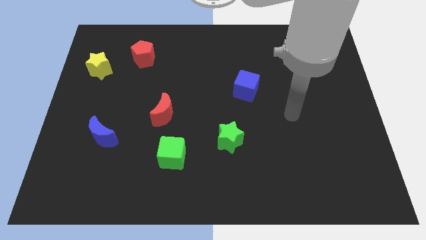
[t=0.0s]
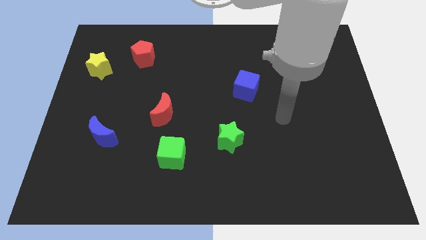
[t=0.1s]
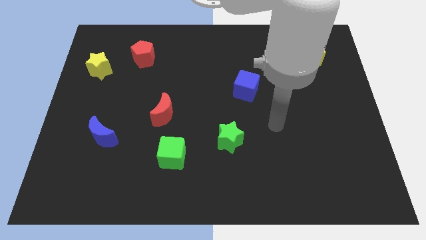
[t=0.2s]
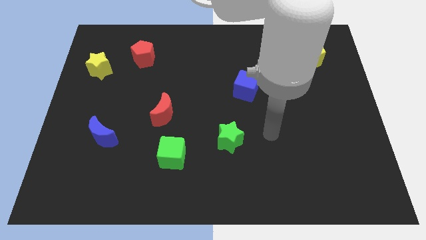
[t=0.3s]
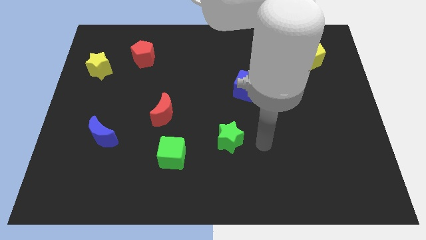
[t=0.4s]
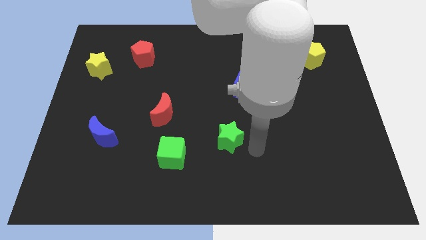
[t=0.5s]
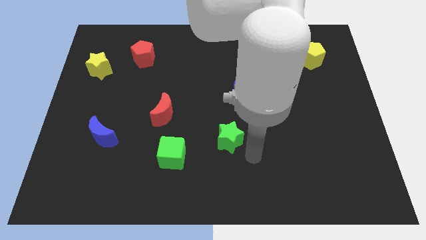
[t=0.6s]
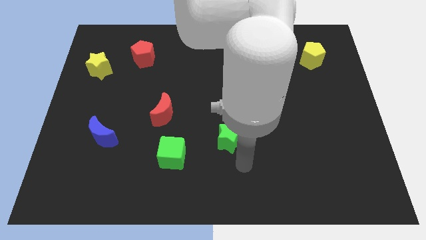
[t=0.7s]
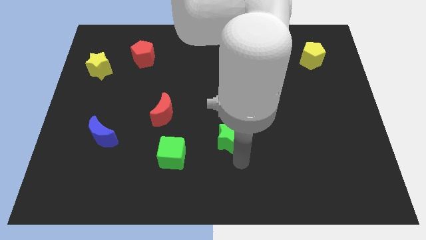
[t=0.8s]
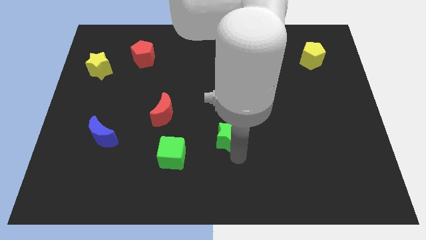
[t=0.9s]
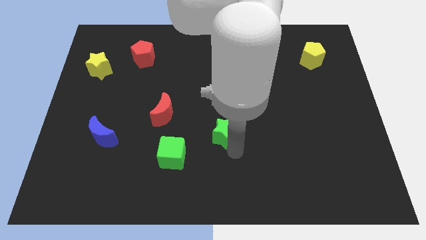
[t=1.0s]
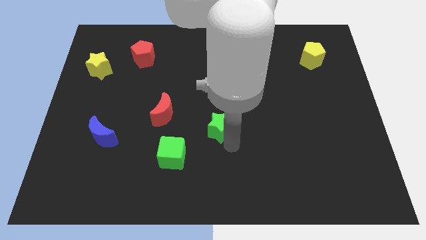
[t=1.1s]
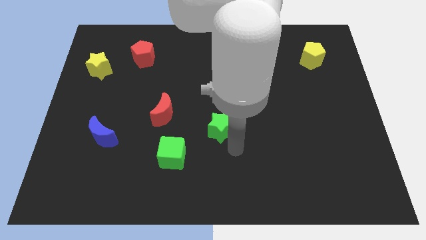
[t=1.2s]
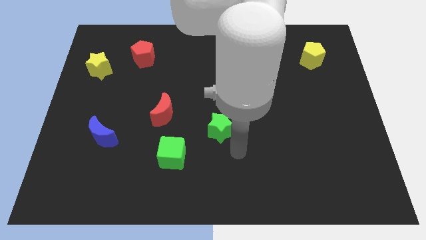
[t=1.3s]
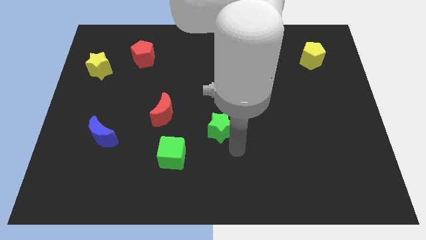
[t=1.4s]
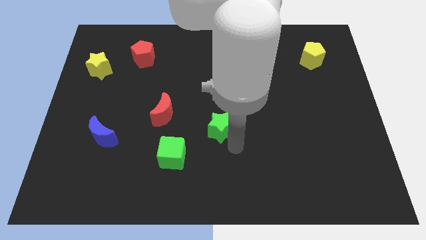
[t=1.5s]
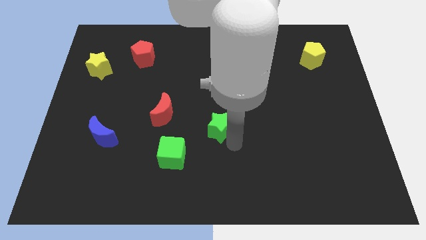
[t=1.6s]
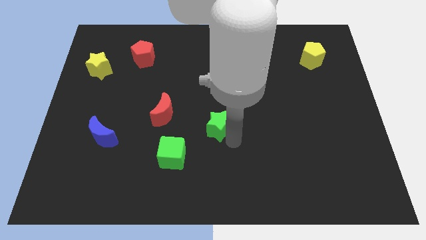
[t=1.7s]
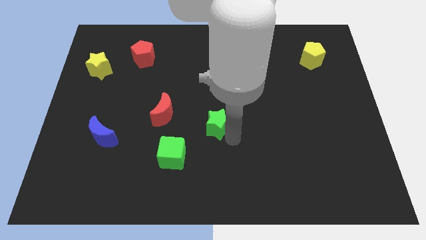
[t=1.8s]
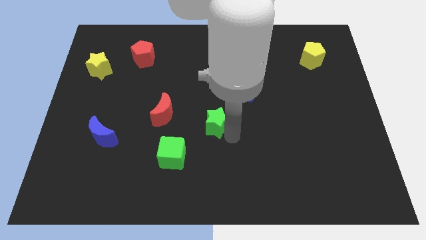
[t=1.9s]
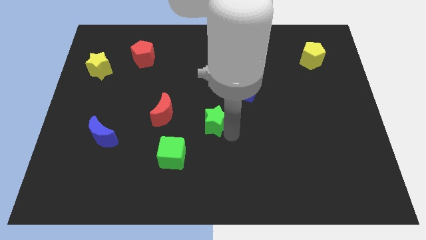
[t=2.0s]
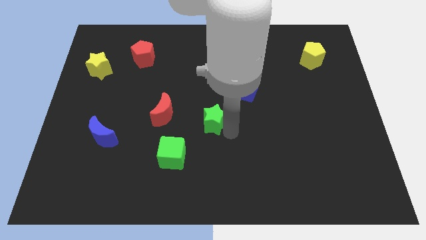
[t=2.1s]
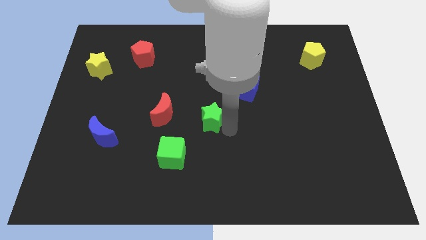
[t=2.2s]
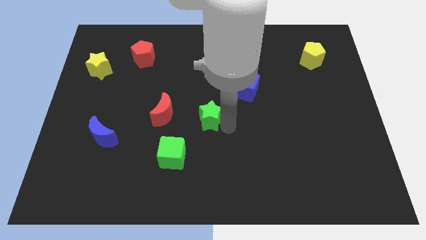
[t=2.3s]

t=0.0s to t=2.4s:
push the green star somewhat up and then left

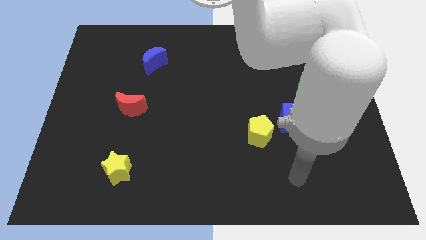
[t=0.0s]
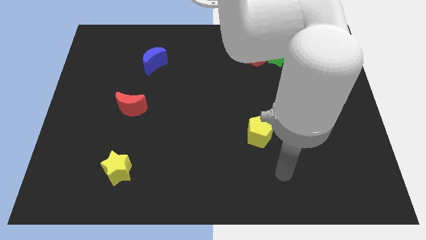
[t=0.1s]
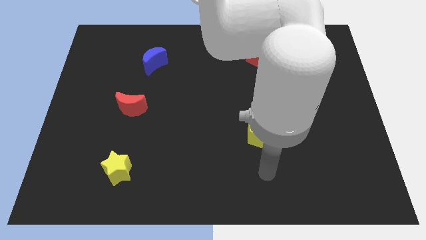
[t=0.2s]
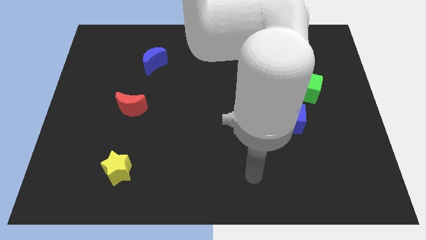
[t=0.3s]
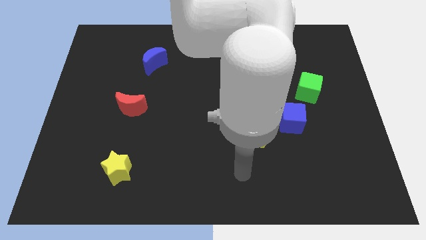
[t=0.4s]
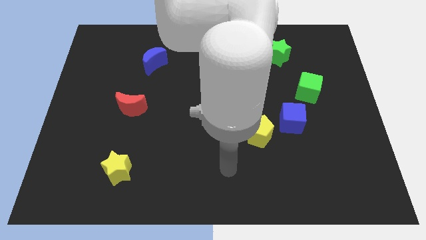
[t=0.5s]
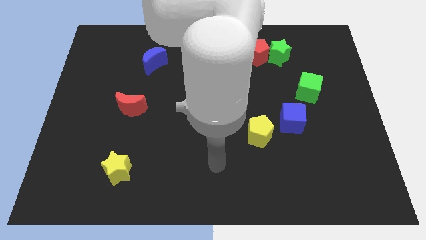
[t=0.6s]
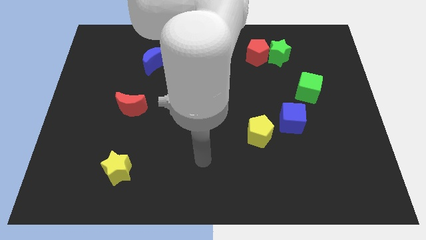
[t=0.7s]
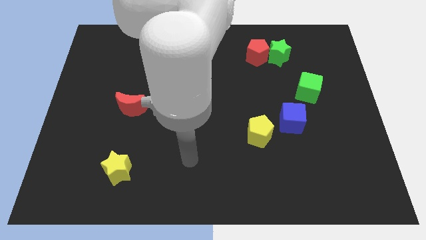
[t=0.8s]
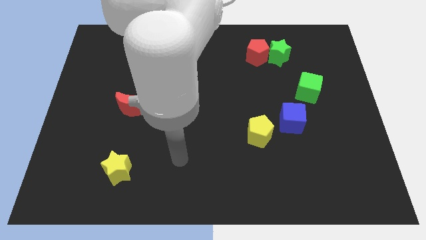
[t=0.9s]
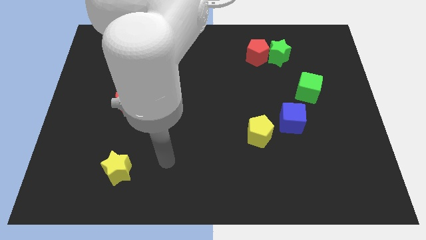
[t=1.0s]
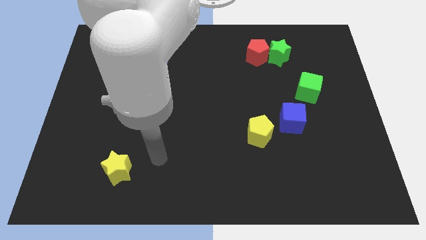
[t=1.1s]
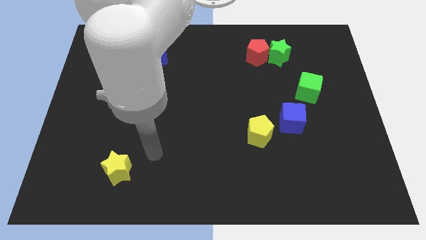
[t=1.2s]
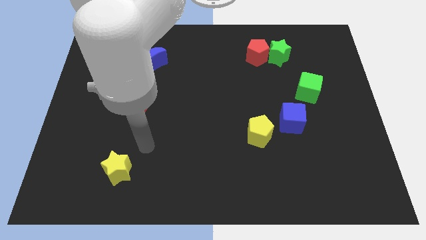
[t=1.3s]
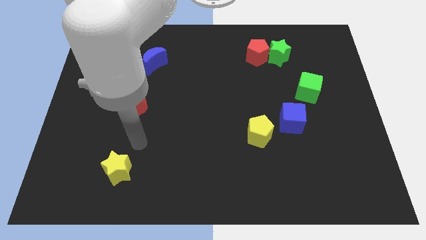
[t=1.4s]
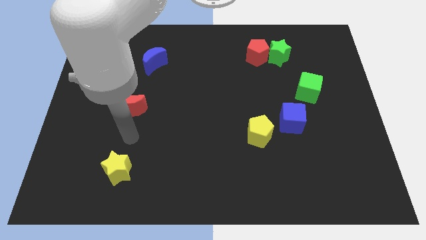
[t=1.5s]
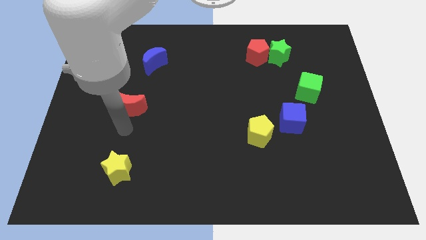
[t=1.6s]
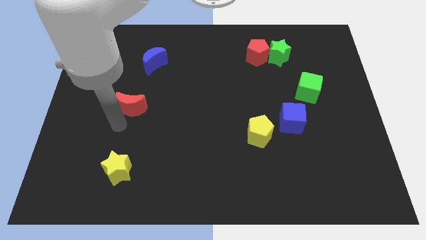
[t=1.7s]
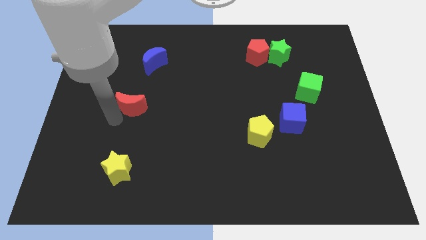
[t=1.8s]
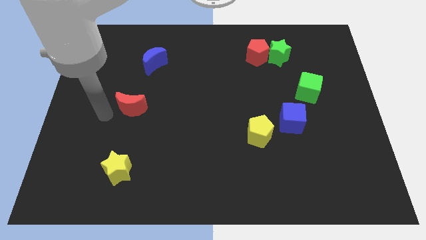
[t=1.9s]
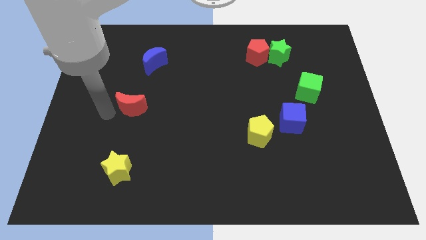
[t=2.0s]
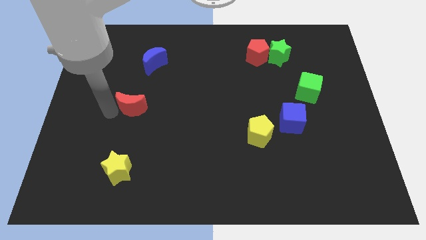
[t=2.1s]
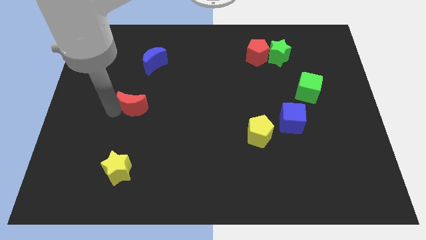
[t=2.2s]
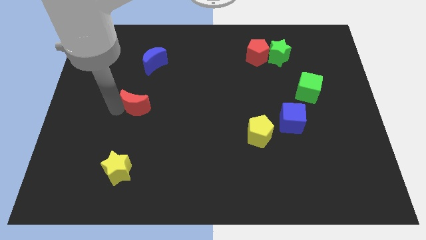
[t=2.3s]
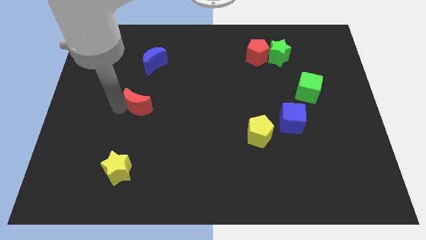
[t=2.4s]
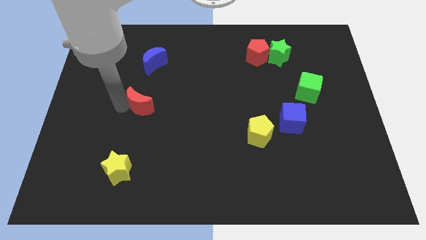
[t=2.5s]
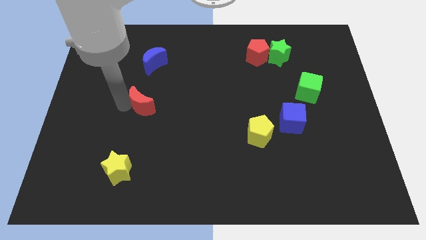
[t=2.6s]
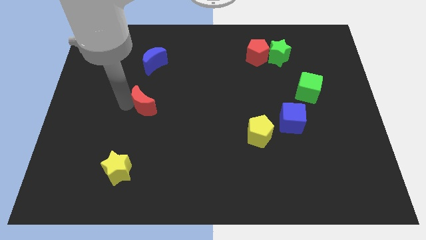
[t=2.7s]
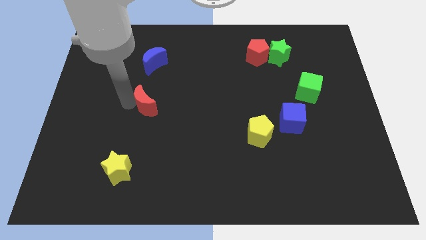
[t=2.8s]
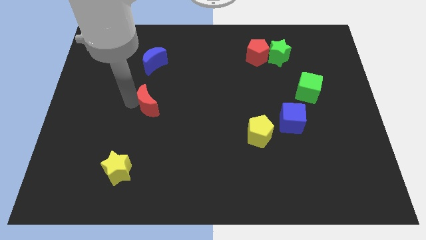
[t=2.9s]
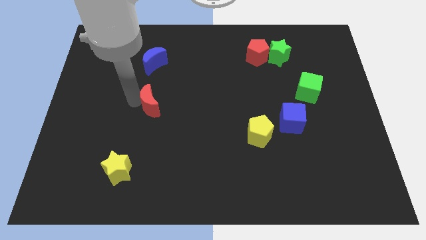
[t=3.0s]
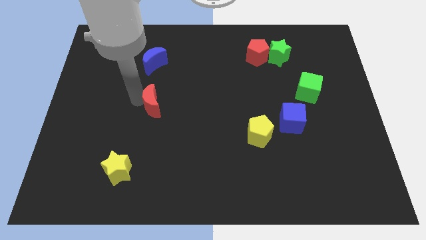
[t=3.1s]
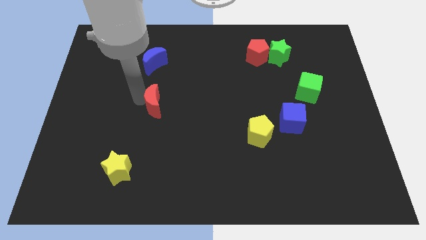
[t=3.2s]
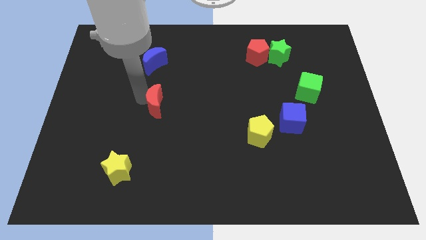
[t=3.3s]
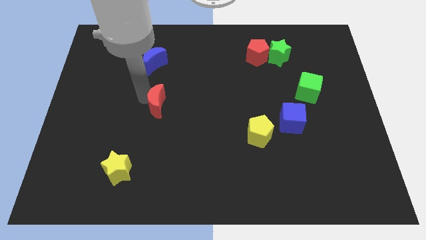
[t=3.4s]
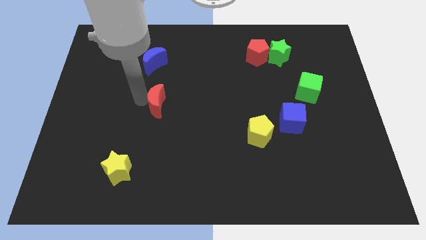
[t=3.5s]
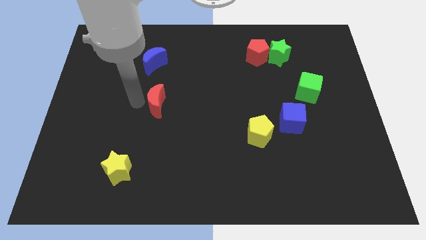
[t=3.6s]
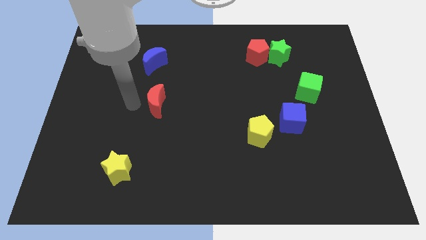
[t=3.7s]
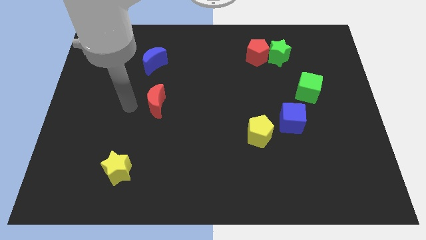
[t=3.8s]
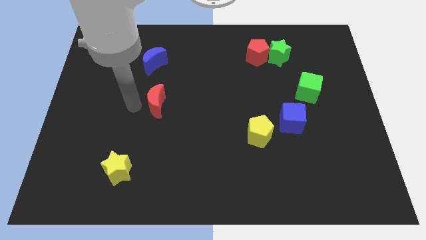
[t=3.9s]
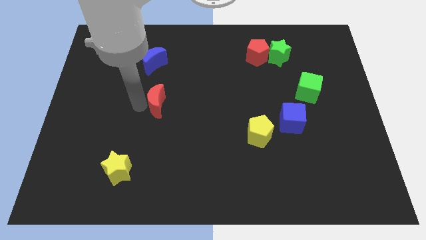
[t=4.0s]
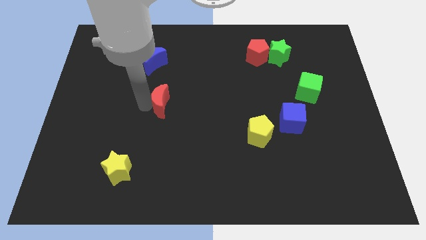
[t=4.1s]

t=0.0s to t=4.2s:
slightly slide the red moon to the right

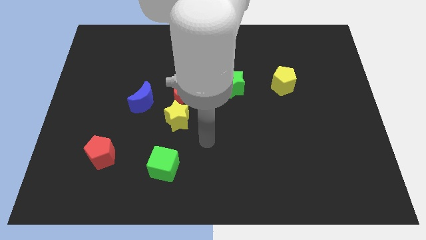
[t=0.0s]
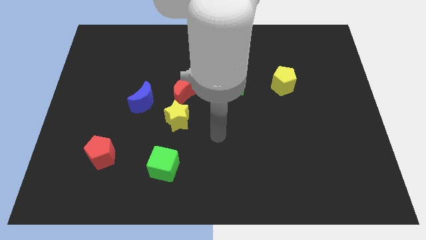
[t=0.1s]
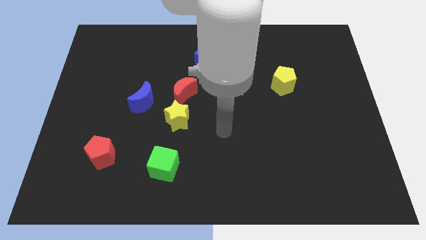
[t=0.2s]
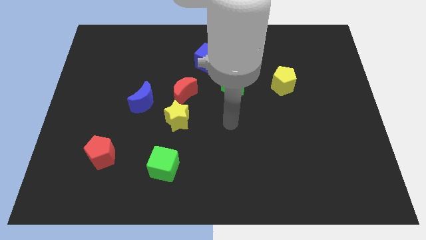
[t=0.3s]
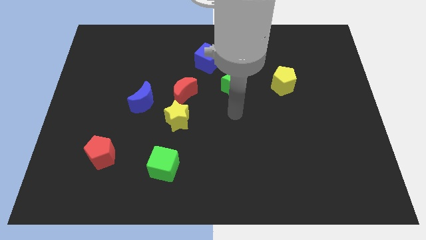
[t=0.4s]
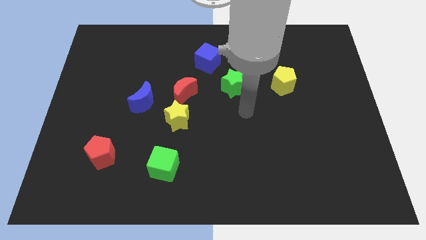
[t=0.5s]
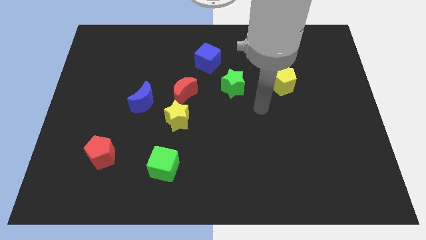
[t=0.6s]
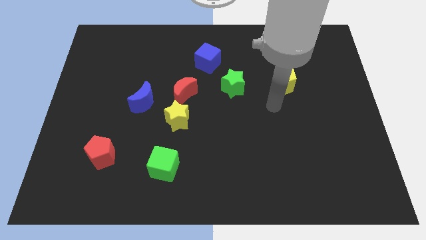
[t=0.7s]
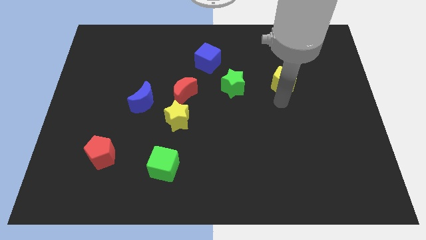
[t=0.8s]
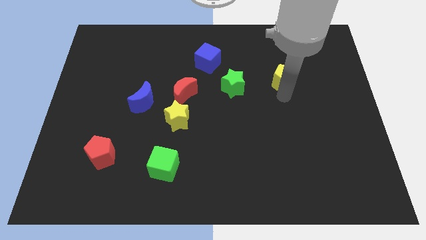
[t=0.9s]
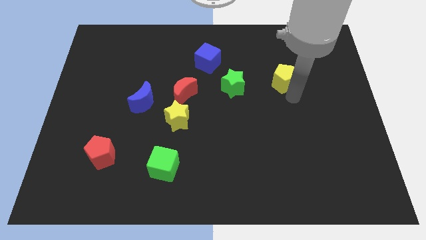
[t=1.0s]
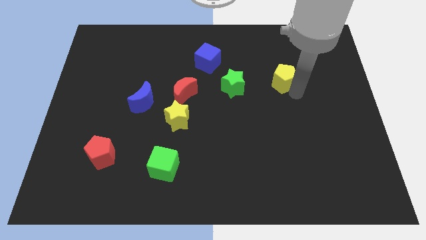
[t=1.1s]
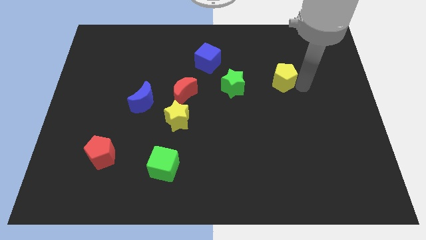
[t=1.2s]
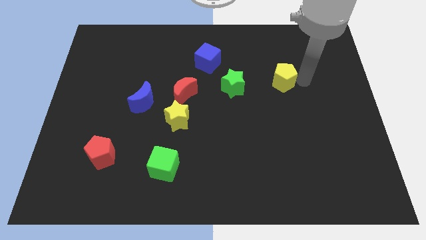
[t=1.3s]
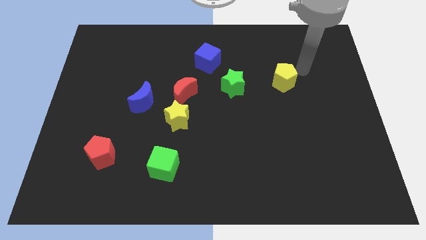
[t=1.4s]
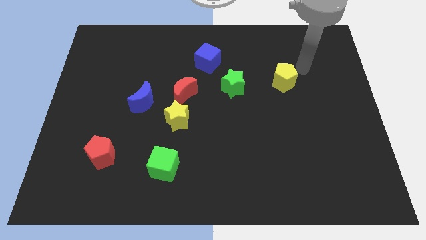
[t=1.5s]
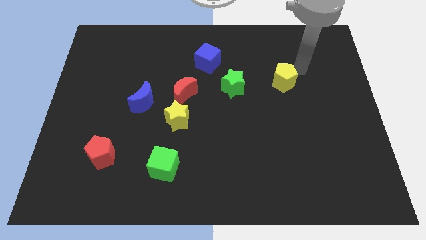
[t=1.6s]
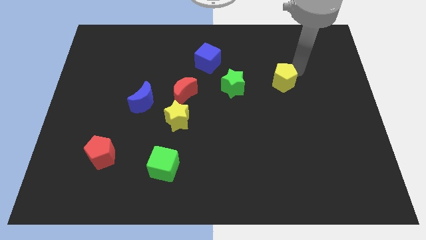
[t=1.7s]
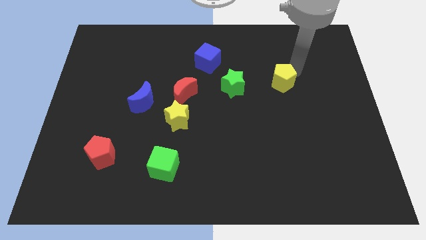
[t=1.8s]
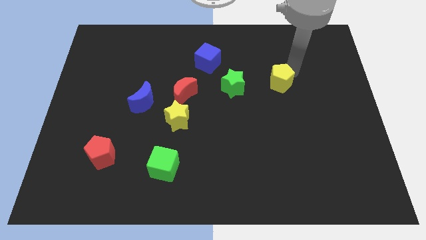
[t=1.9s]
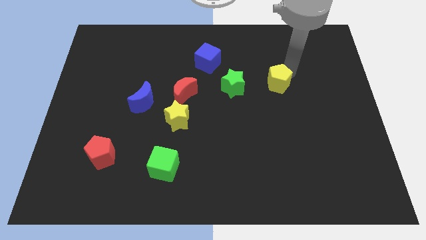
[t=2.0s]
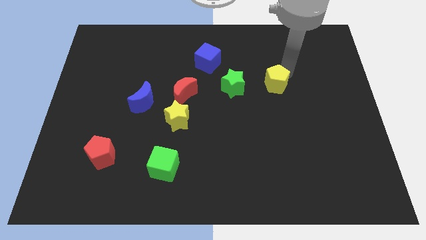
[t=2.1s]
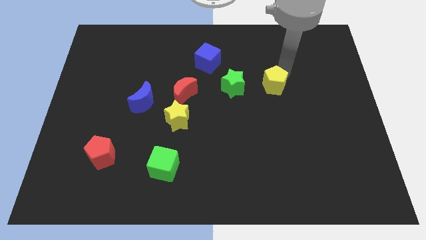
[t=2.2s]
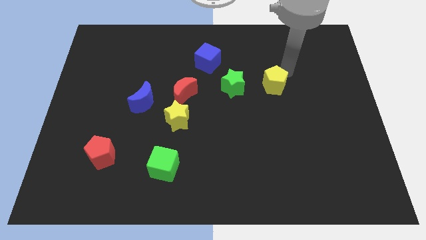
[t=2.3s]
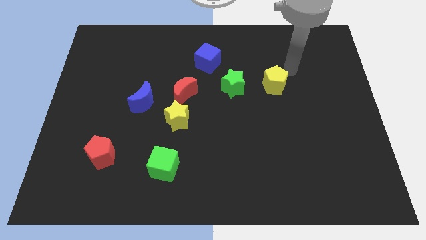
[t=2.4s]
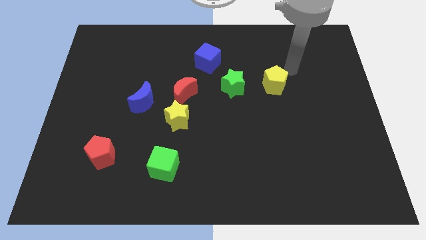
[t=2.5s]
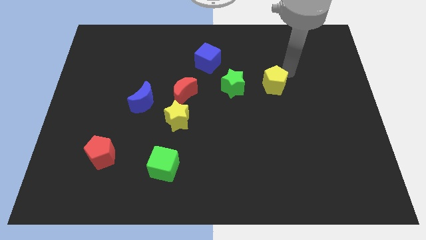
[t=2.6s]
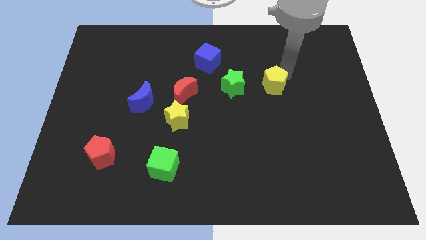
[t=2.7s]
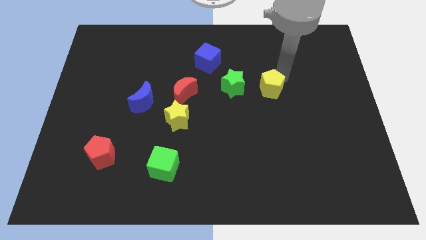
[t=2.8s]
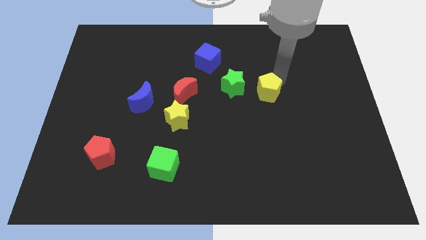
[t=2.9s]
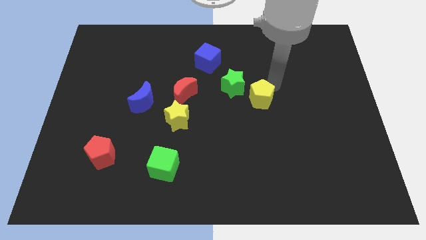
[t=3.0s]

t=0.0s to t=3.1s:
move the yellow pentagon downwards and left diagonally a bit
